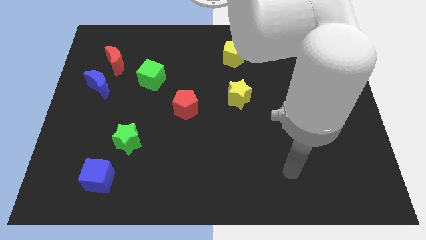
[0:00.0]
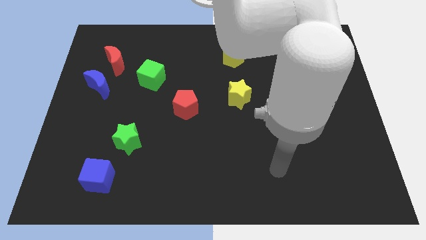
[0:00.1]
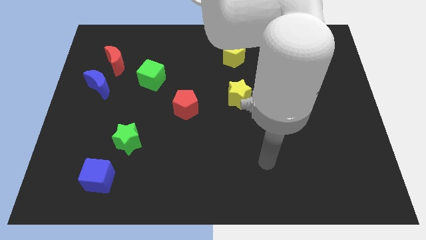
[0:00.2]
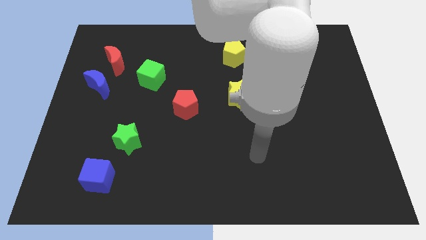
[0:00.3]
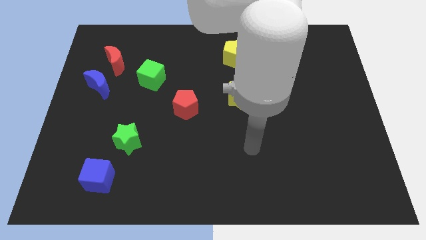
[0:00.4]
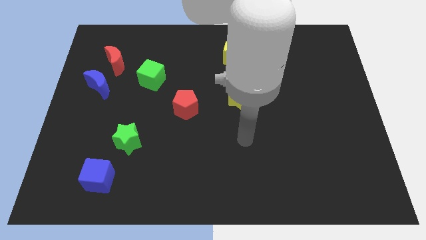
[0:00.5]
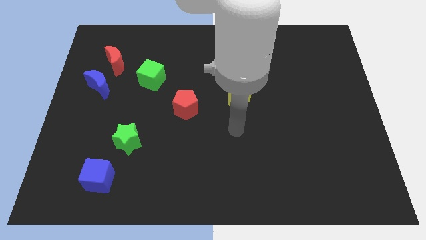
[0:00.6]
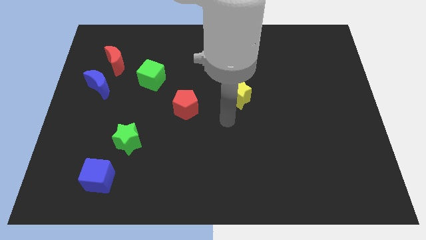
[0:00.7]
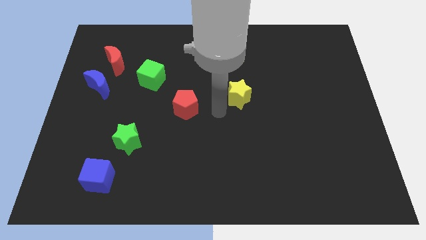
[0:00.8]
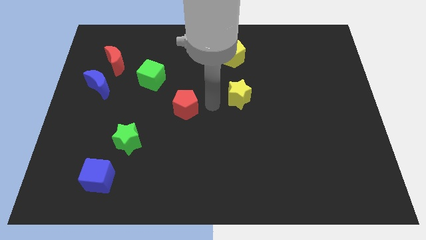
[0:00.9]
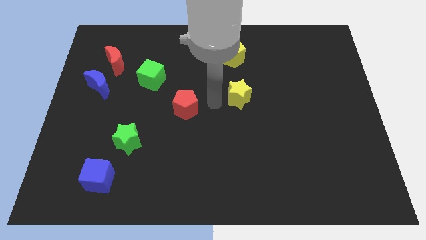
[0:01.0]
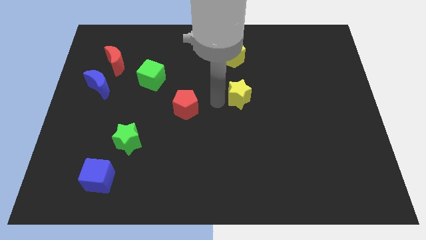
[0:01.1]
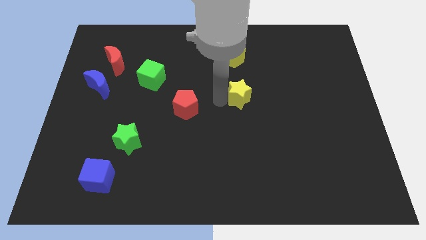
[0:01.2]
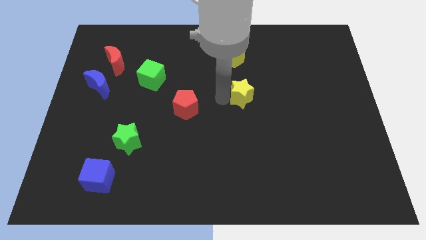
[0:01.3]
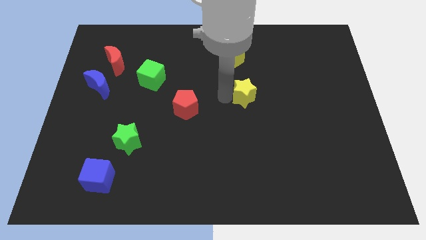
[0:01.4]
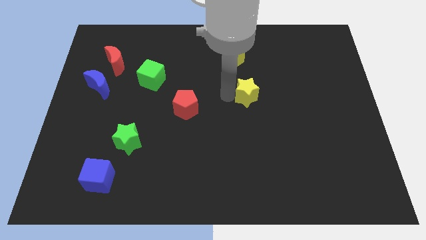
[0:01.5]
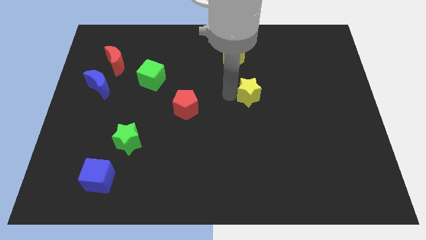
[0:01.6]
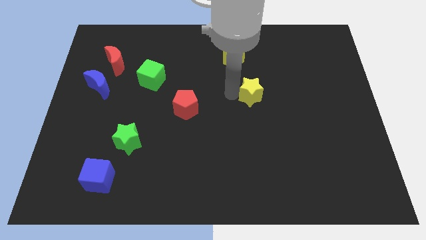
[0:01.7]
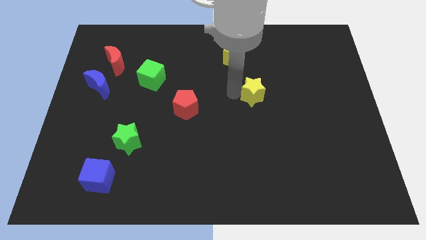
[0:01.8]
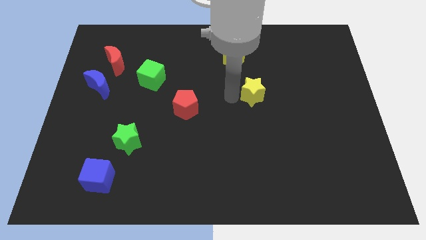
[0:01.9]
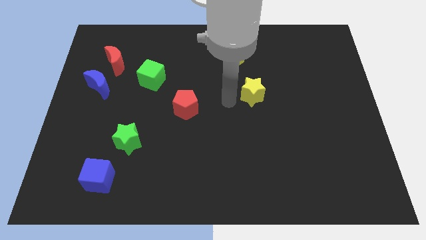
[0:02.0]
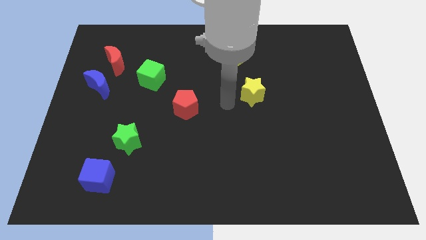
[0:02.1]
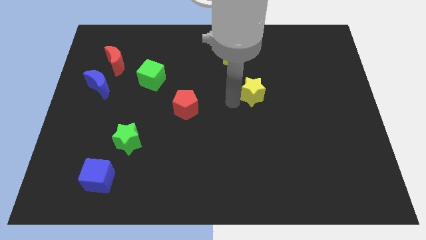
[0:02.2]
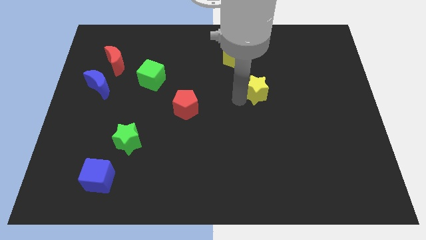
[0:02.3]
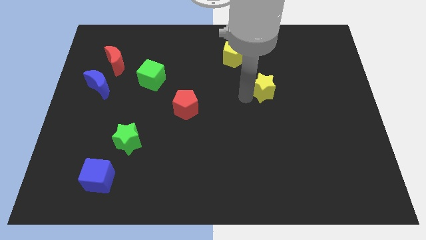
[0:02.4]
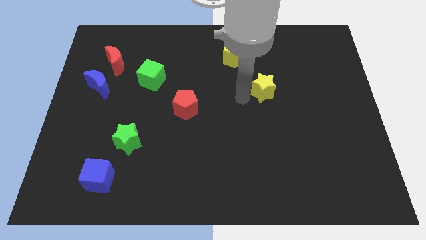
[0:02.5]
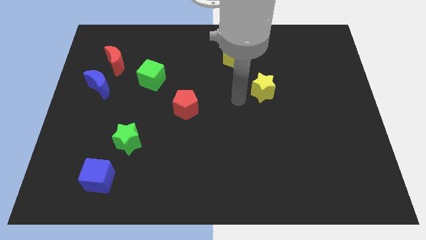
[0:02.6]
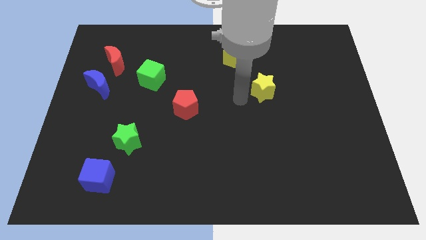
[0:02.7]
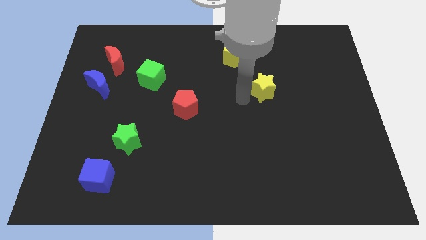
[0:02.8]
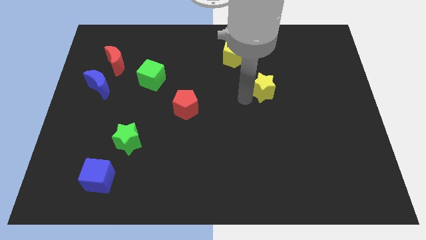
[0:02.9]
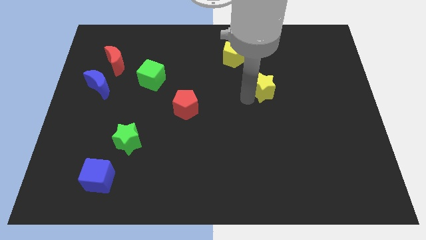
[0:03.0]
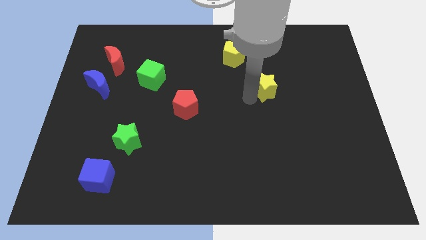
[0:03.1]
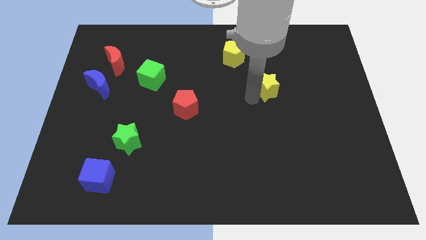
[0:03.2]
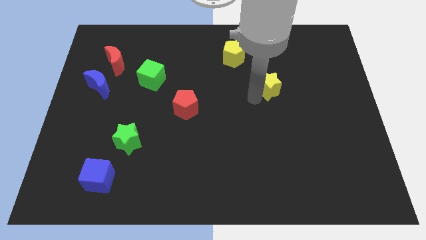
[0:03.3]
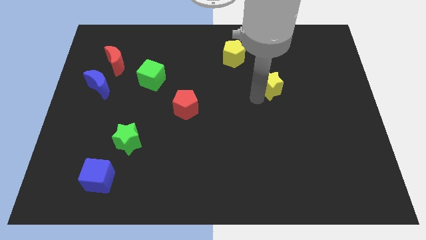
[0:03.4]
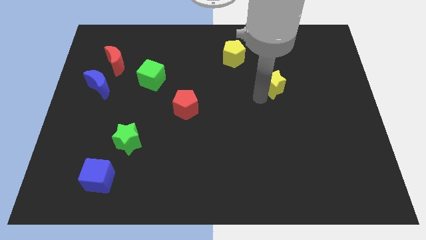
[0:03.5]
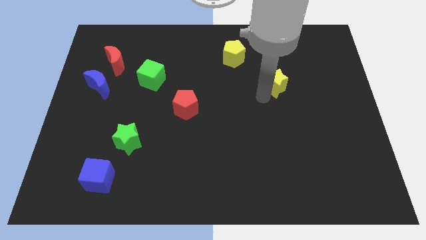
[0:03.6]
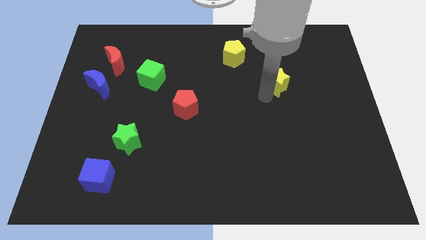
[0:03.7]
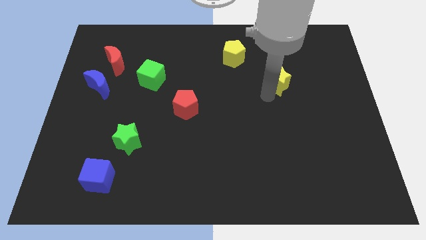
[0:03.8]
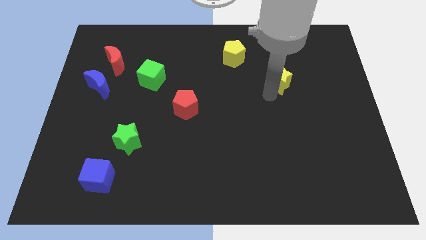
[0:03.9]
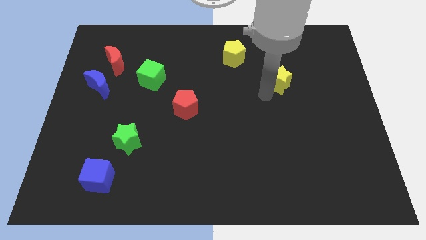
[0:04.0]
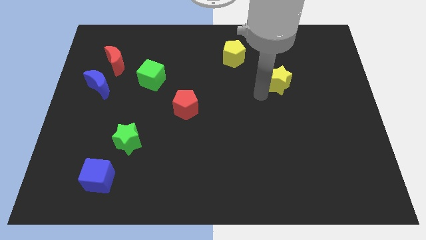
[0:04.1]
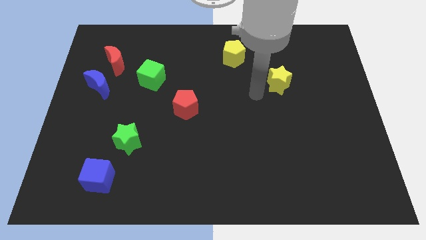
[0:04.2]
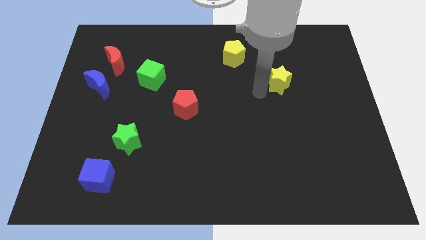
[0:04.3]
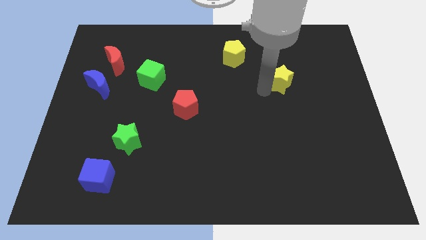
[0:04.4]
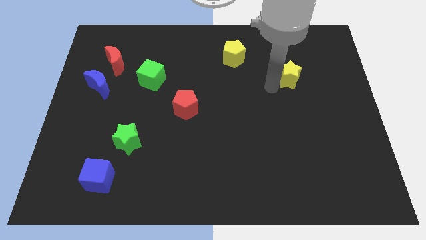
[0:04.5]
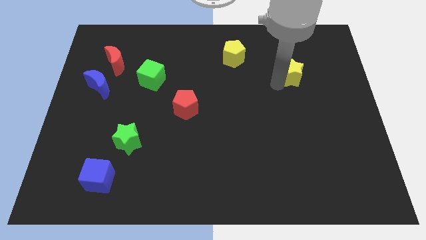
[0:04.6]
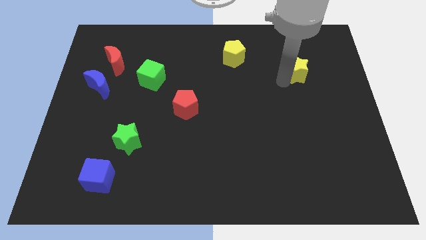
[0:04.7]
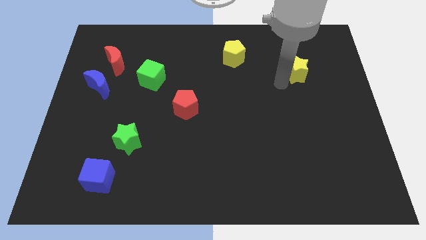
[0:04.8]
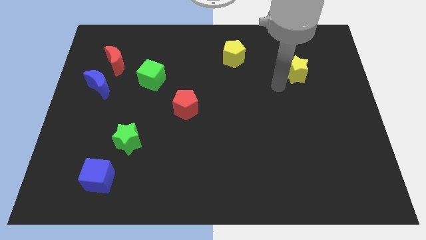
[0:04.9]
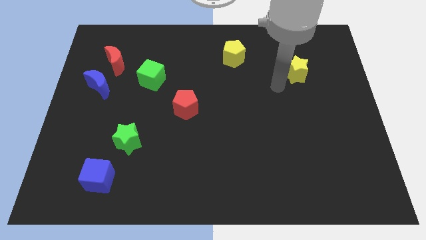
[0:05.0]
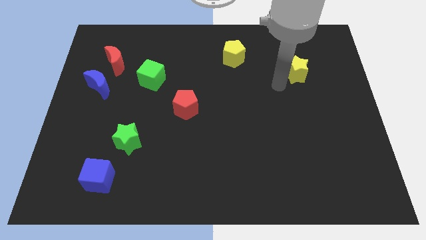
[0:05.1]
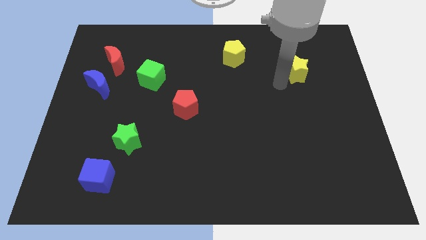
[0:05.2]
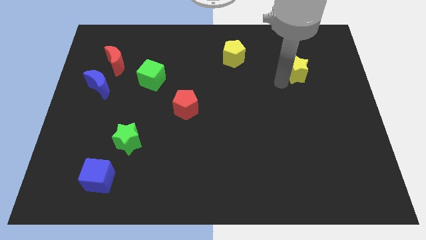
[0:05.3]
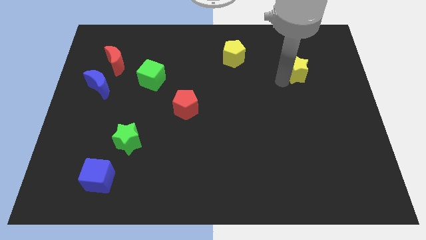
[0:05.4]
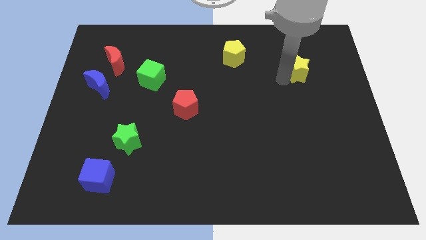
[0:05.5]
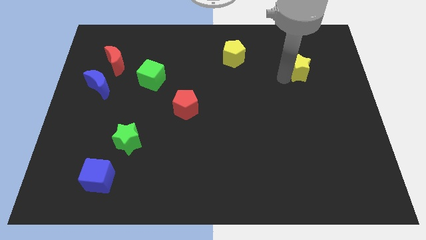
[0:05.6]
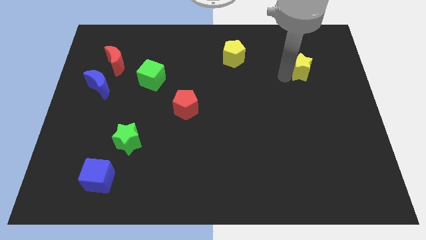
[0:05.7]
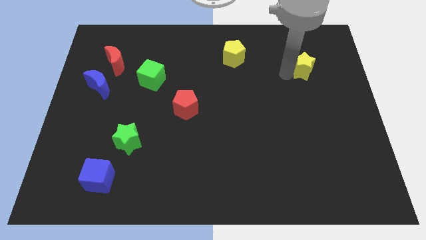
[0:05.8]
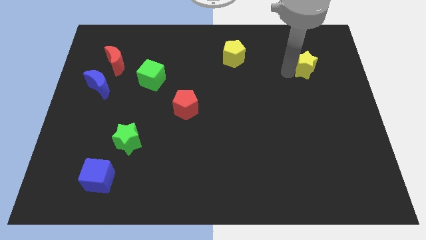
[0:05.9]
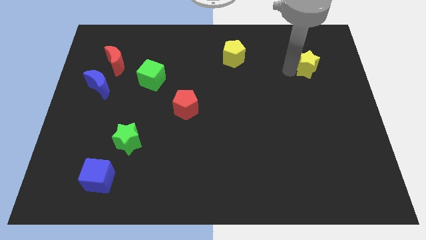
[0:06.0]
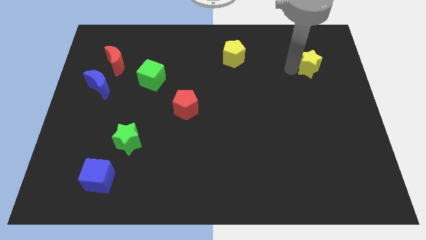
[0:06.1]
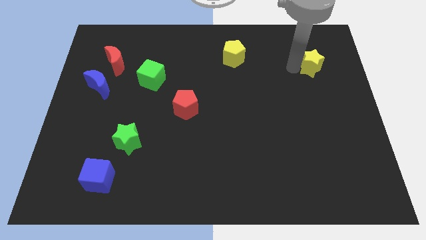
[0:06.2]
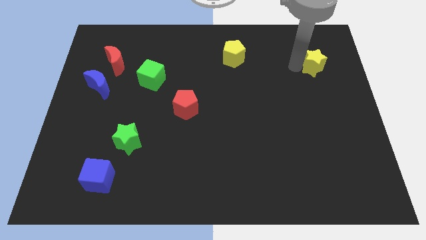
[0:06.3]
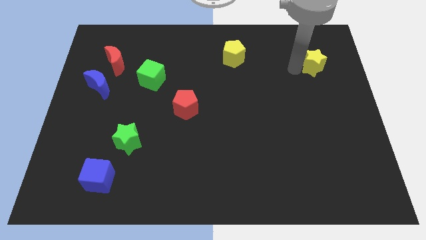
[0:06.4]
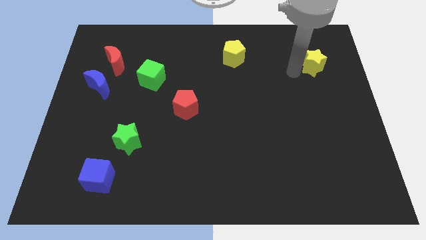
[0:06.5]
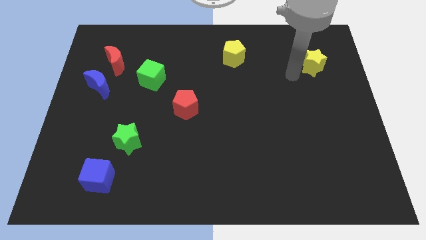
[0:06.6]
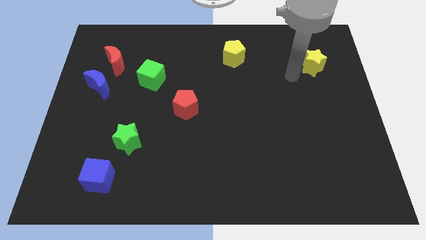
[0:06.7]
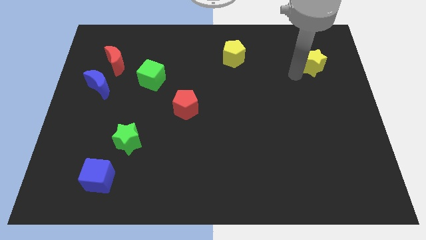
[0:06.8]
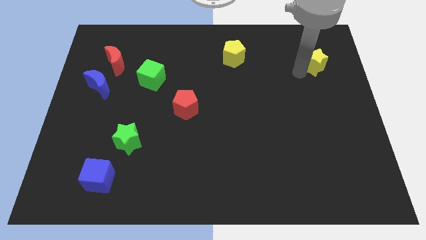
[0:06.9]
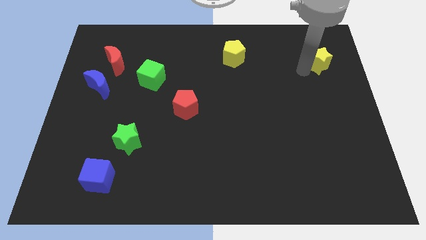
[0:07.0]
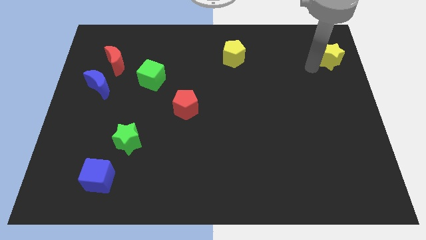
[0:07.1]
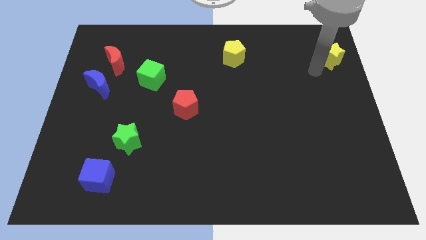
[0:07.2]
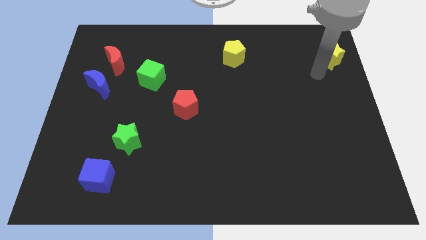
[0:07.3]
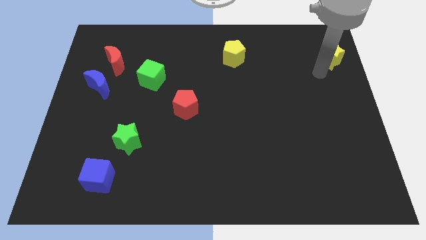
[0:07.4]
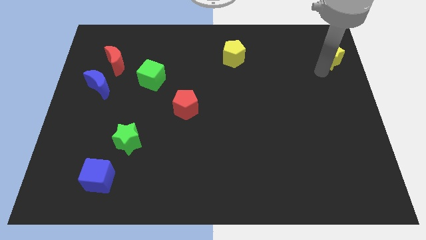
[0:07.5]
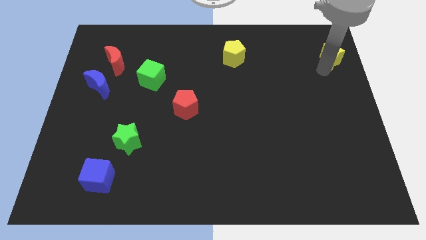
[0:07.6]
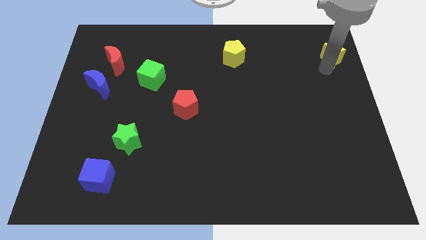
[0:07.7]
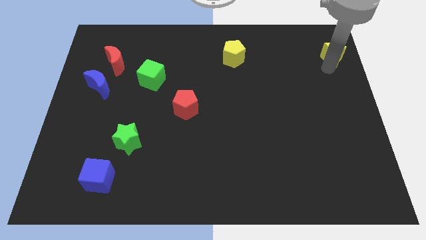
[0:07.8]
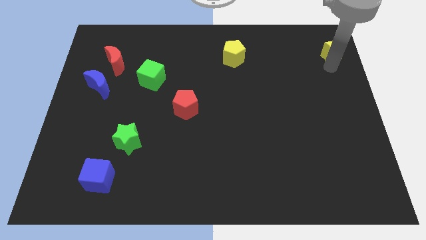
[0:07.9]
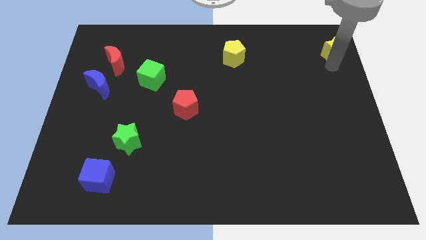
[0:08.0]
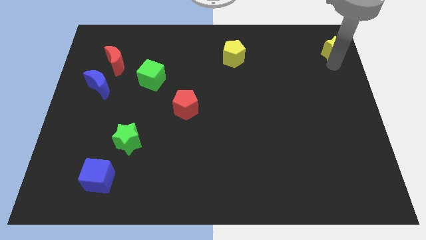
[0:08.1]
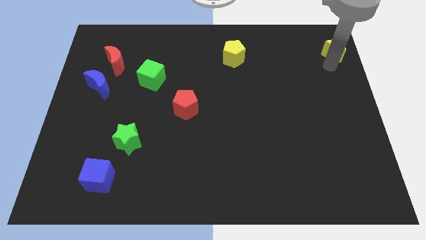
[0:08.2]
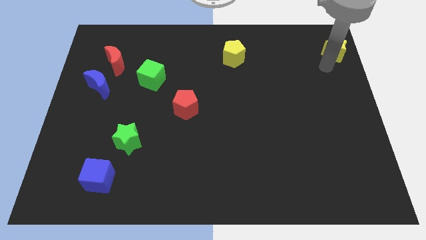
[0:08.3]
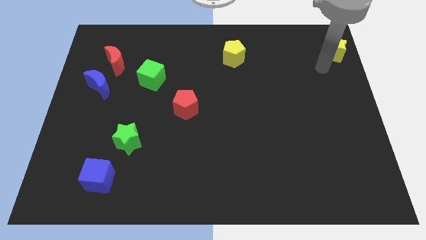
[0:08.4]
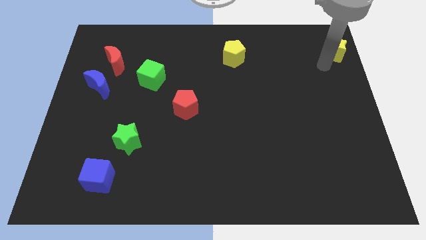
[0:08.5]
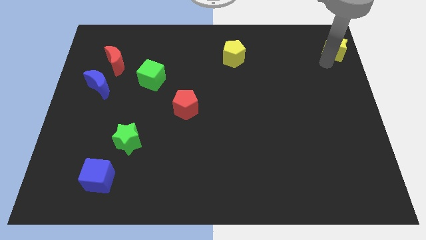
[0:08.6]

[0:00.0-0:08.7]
push the yellow star to the top right of the board
